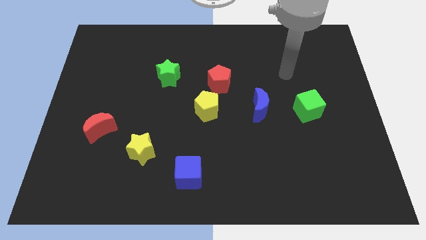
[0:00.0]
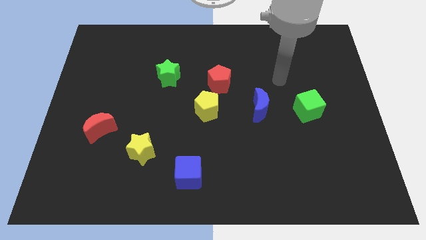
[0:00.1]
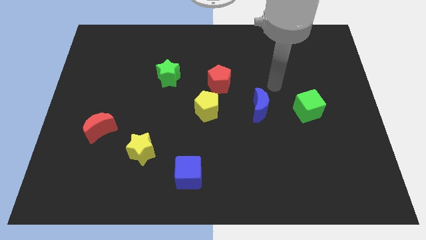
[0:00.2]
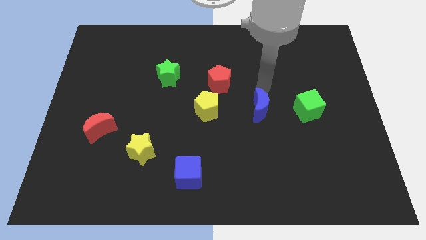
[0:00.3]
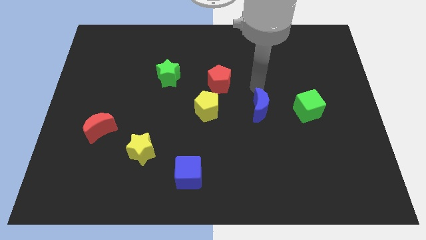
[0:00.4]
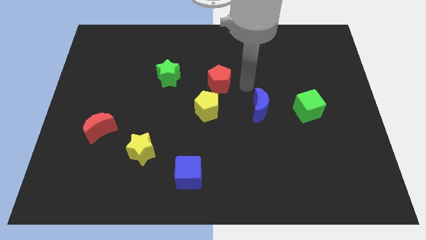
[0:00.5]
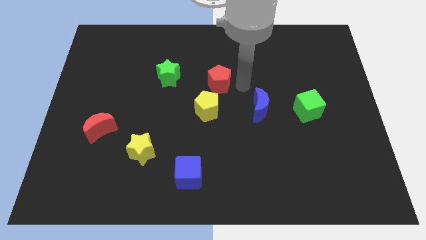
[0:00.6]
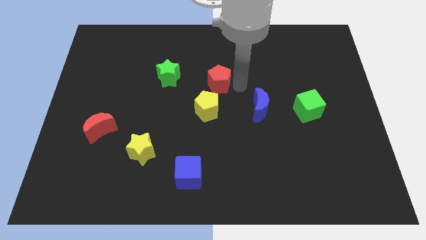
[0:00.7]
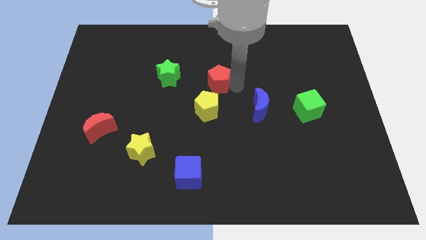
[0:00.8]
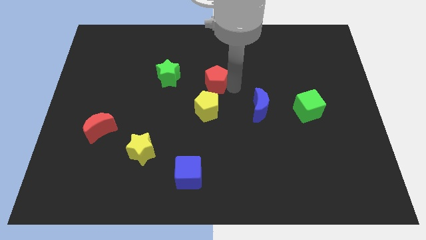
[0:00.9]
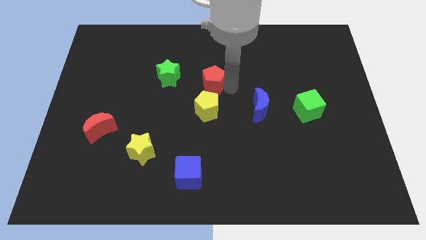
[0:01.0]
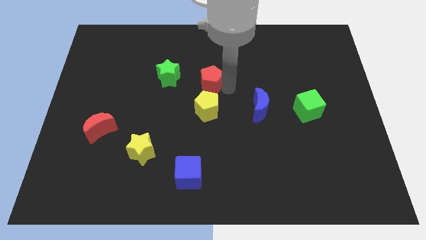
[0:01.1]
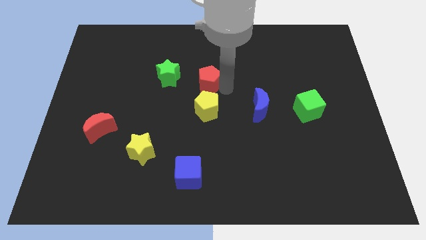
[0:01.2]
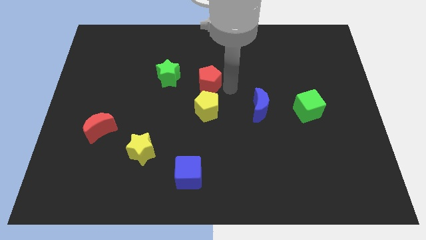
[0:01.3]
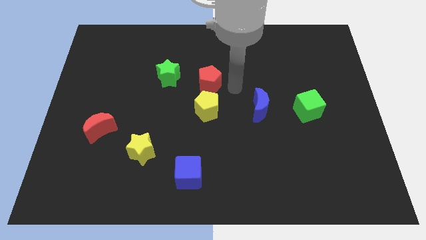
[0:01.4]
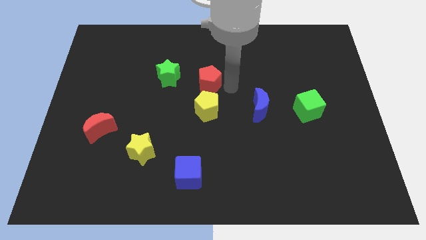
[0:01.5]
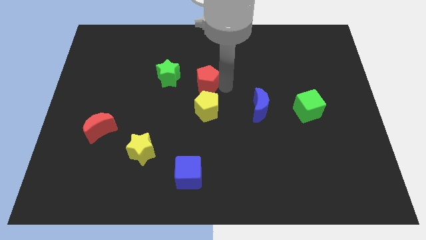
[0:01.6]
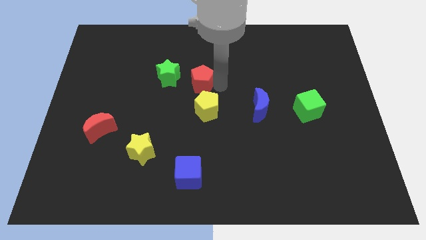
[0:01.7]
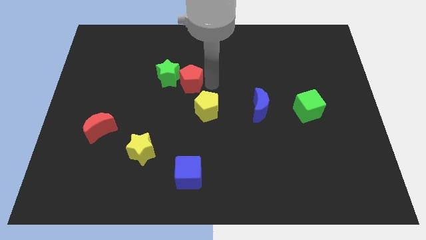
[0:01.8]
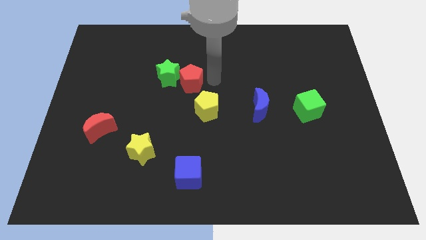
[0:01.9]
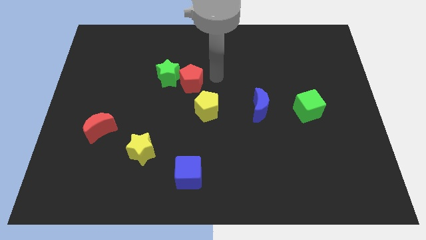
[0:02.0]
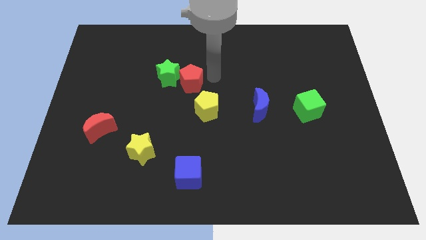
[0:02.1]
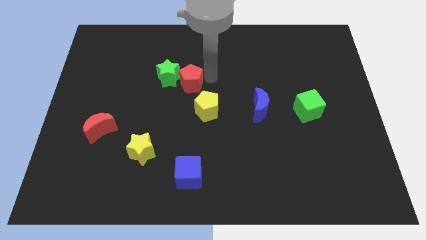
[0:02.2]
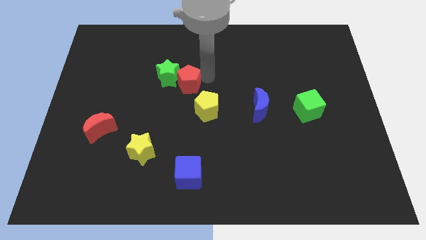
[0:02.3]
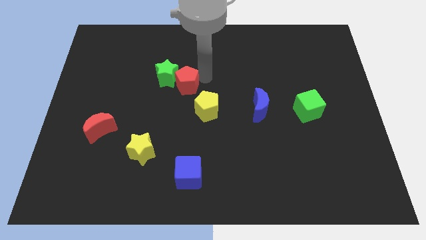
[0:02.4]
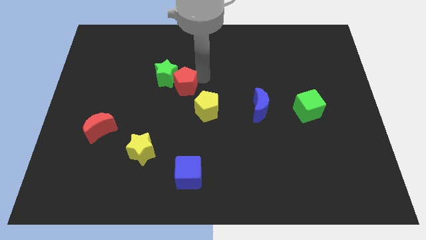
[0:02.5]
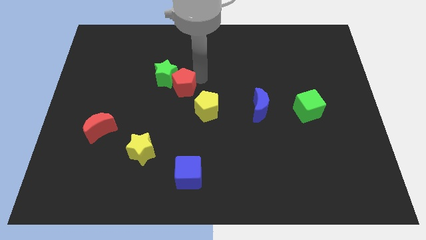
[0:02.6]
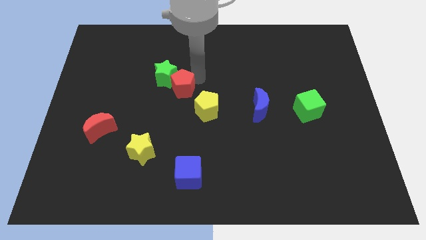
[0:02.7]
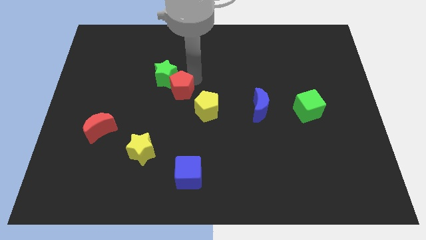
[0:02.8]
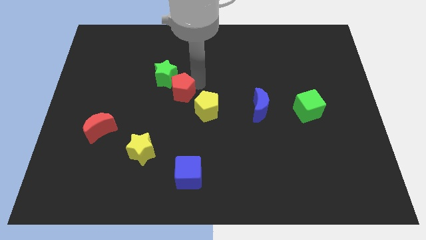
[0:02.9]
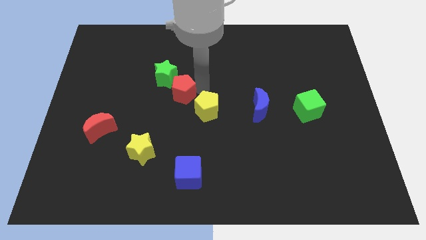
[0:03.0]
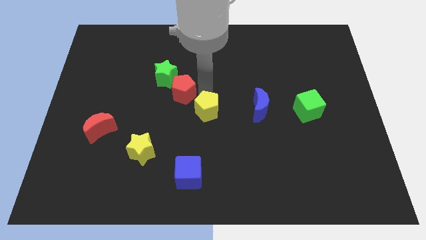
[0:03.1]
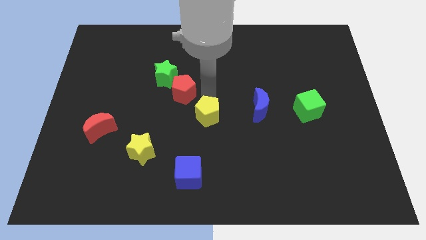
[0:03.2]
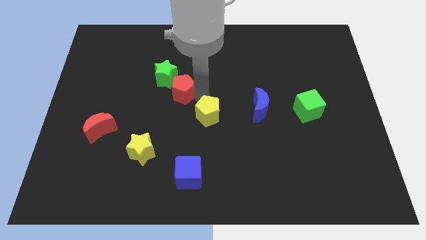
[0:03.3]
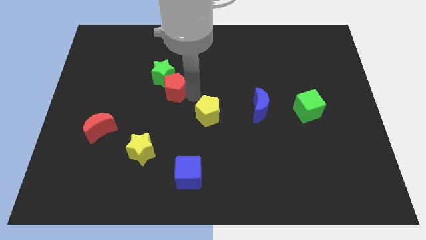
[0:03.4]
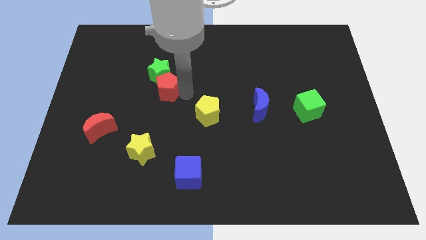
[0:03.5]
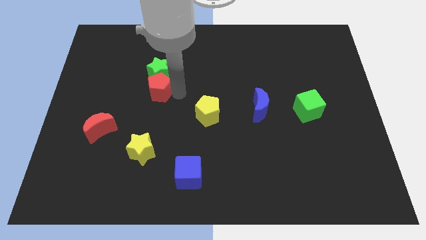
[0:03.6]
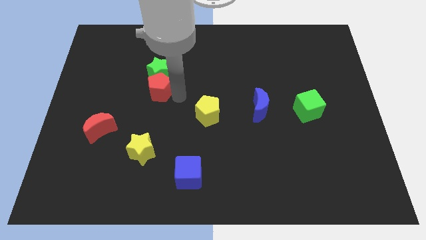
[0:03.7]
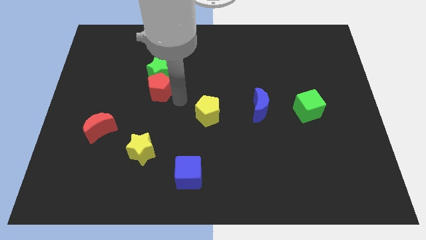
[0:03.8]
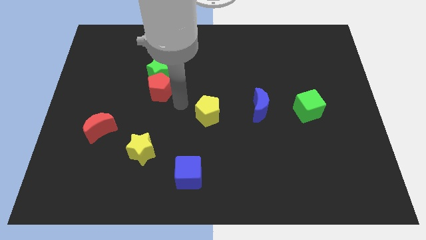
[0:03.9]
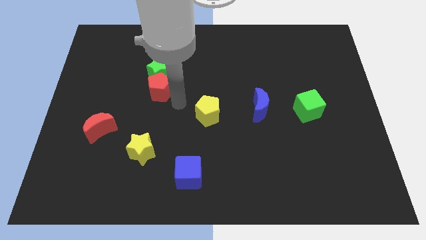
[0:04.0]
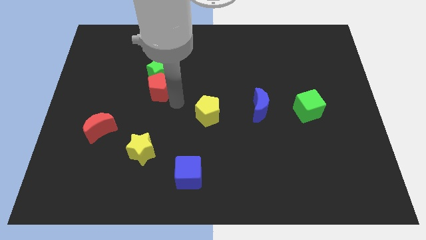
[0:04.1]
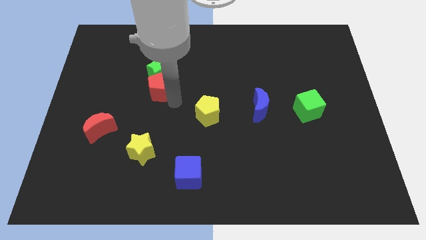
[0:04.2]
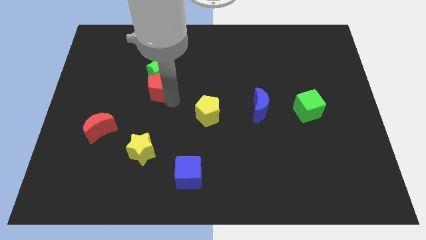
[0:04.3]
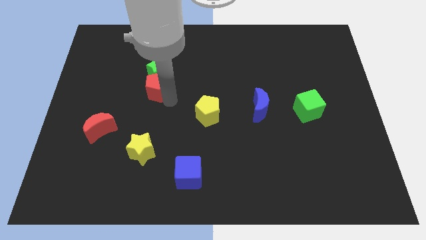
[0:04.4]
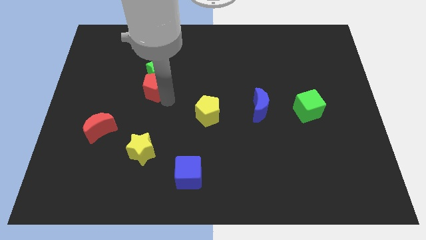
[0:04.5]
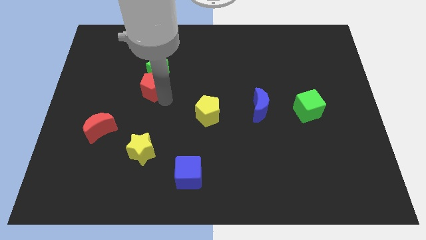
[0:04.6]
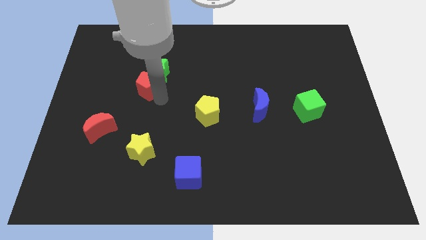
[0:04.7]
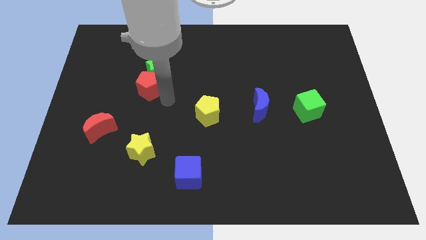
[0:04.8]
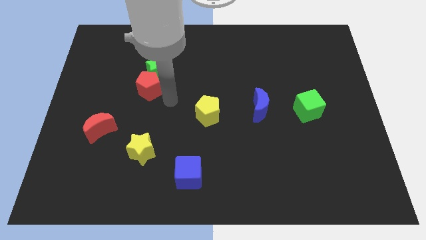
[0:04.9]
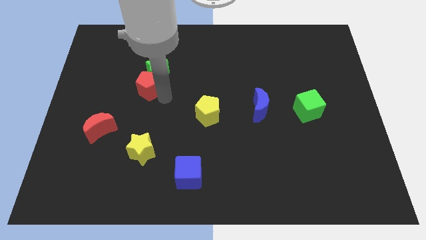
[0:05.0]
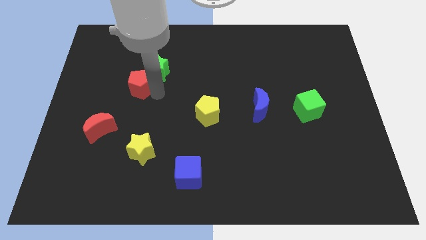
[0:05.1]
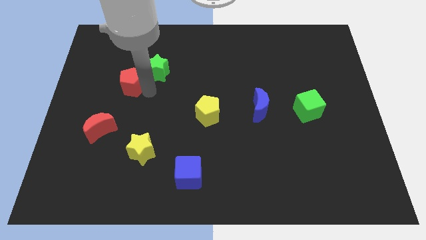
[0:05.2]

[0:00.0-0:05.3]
put the red pentagon just left of the green star

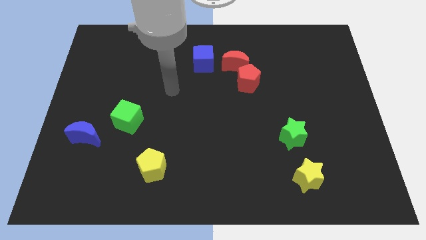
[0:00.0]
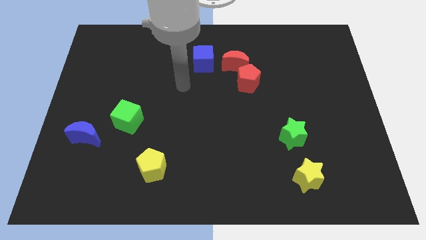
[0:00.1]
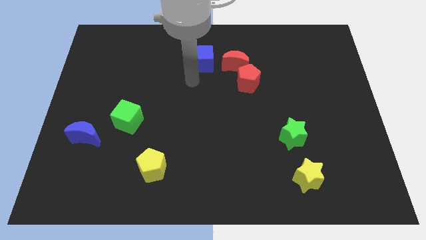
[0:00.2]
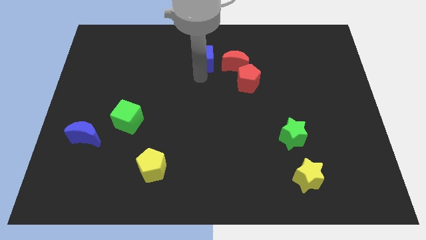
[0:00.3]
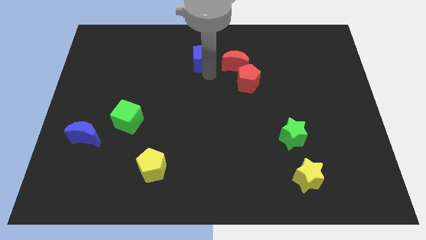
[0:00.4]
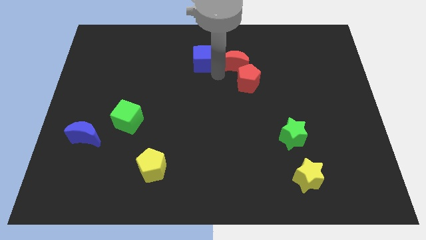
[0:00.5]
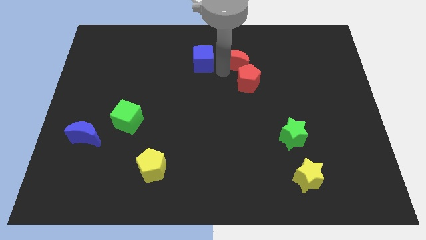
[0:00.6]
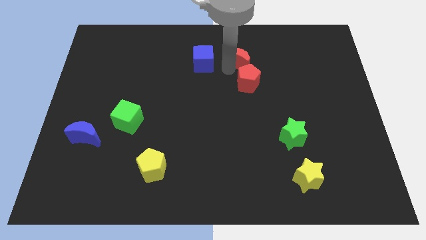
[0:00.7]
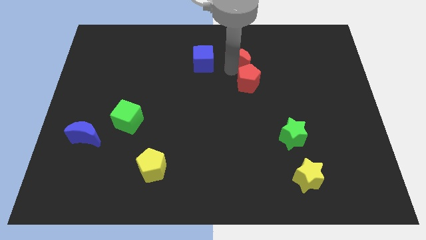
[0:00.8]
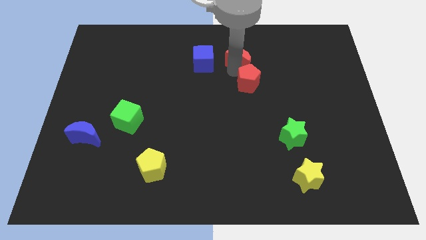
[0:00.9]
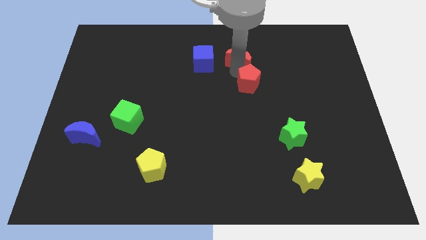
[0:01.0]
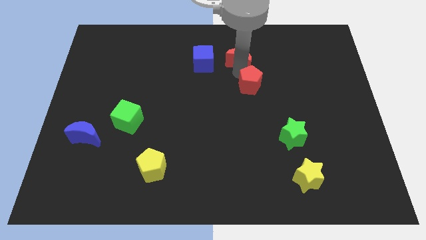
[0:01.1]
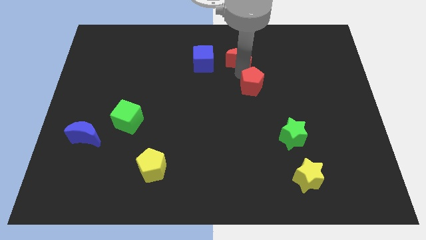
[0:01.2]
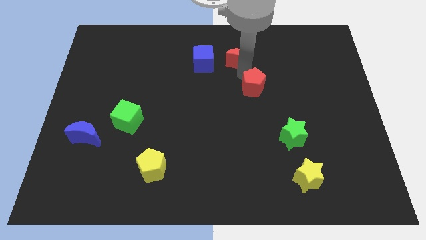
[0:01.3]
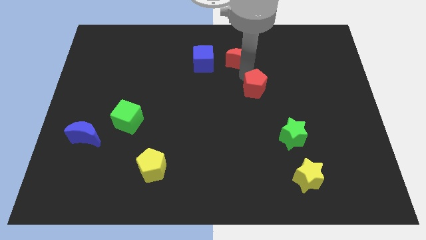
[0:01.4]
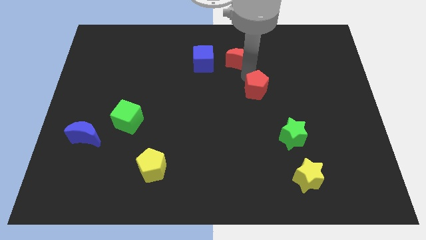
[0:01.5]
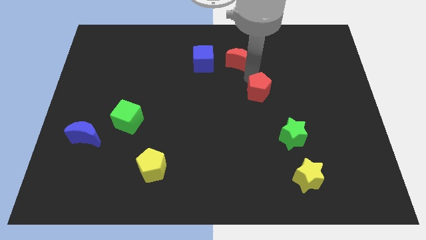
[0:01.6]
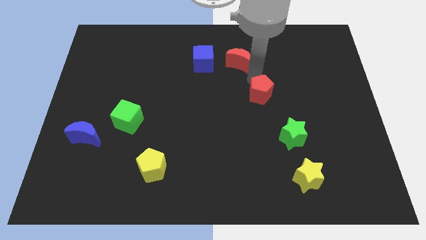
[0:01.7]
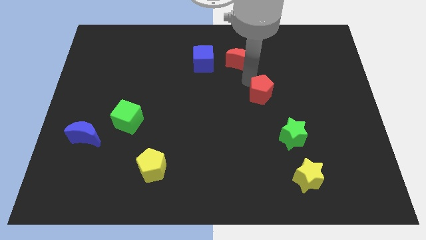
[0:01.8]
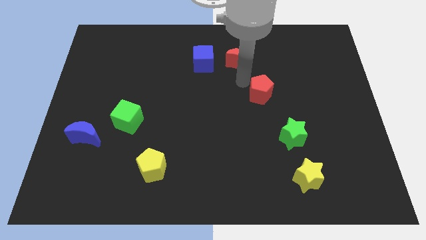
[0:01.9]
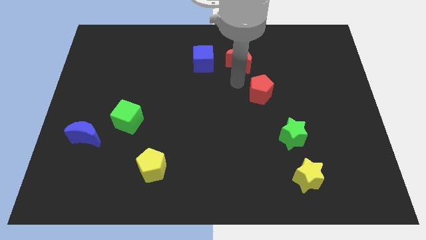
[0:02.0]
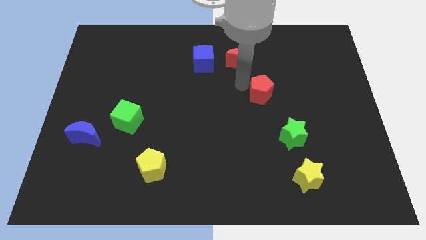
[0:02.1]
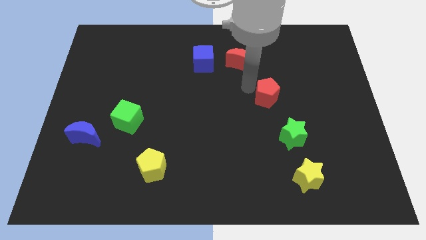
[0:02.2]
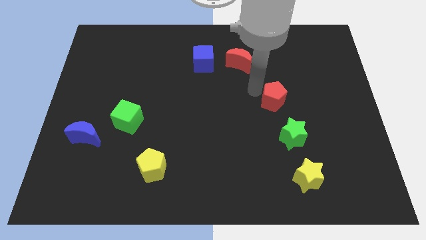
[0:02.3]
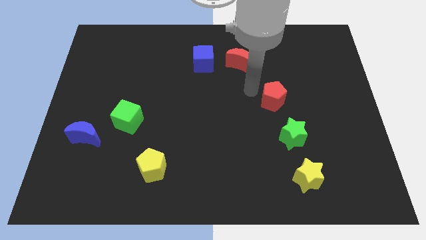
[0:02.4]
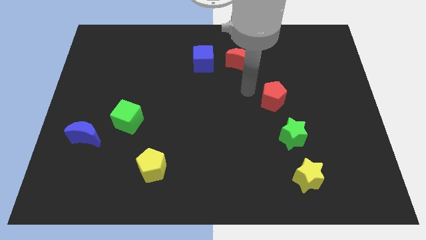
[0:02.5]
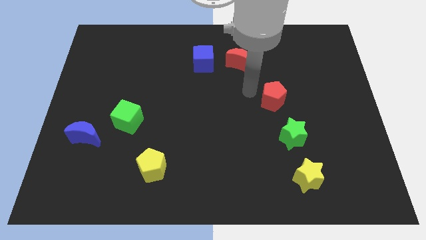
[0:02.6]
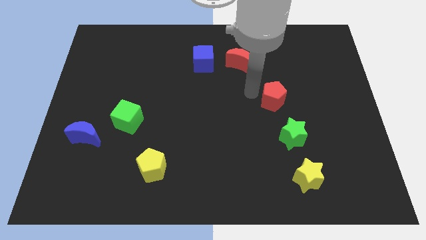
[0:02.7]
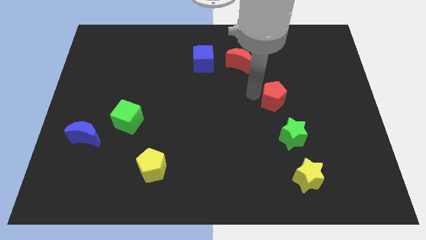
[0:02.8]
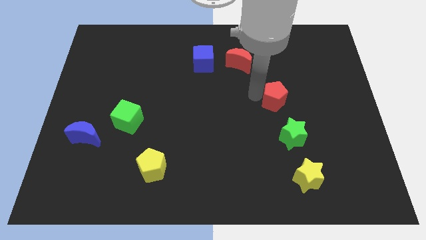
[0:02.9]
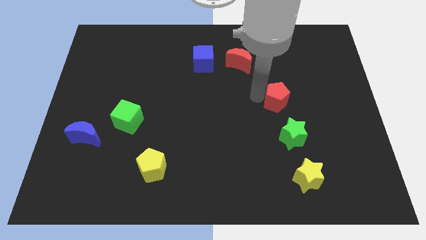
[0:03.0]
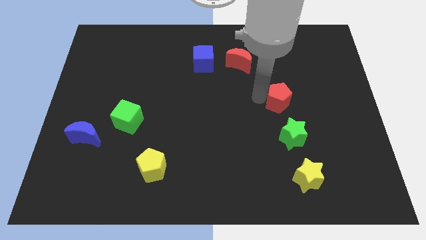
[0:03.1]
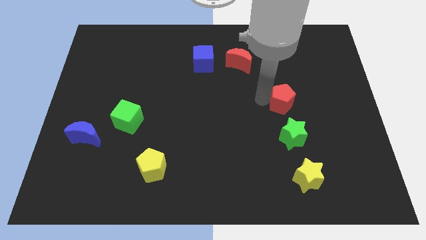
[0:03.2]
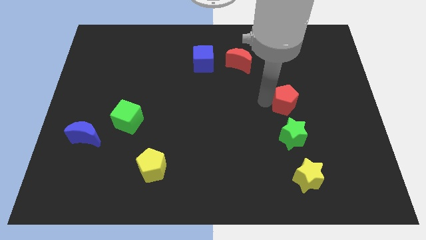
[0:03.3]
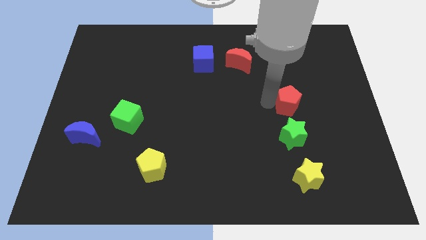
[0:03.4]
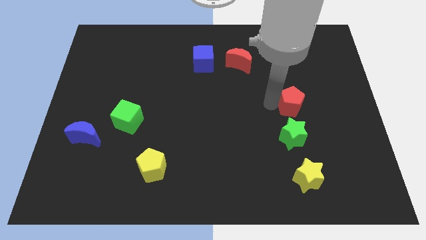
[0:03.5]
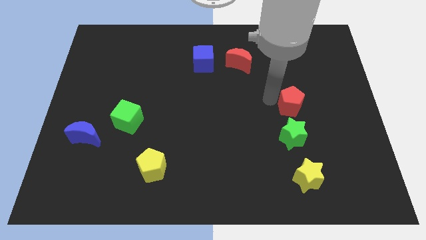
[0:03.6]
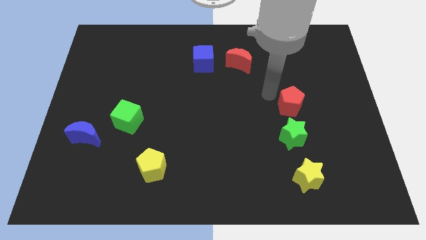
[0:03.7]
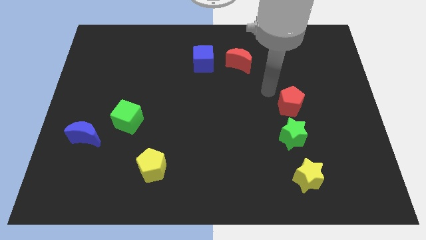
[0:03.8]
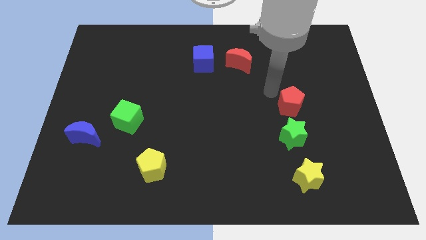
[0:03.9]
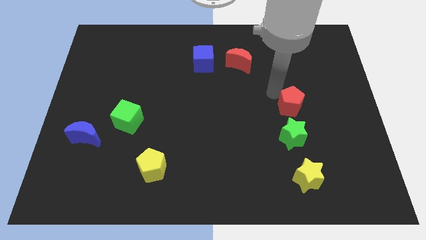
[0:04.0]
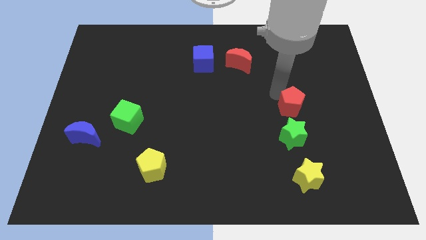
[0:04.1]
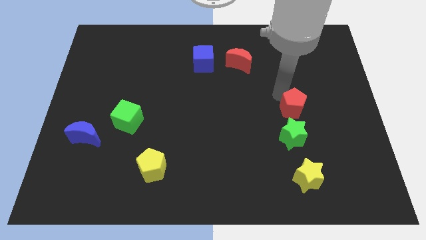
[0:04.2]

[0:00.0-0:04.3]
put the red pentagon to the top right side of the green star
